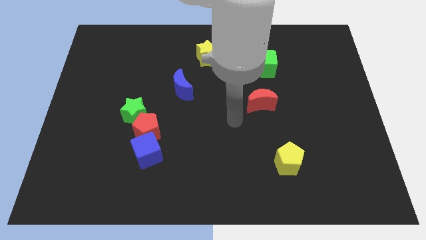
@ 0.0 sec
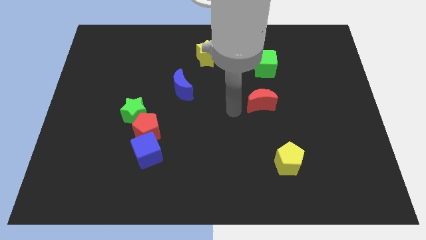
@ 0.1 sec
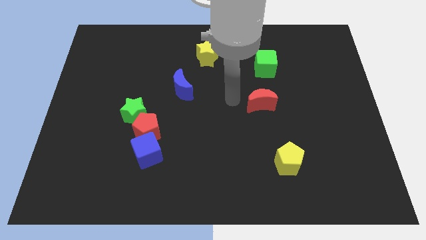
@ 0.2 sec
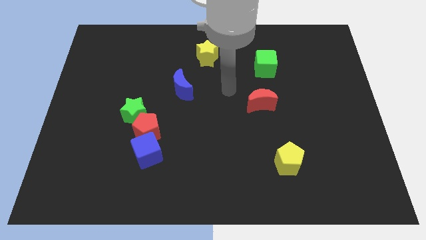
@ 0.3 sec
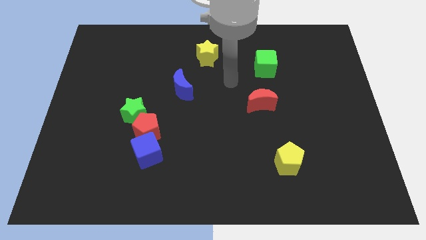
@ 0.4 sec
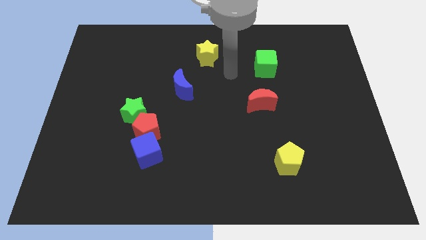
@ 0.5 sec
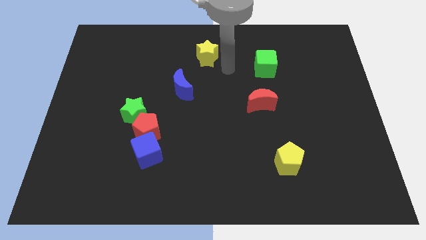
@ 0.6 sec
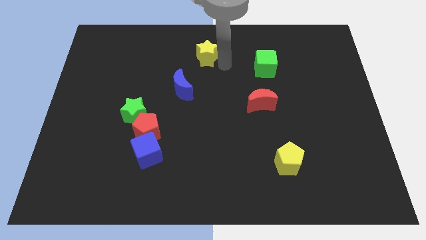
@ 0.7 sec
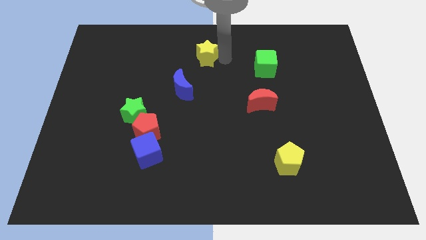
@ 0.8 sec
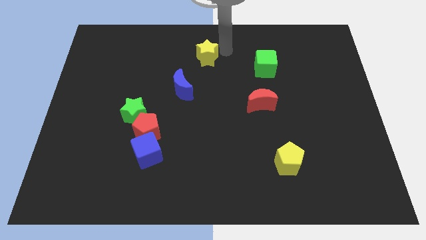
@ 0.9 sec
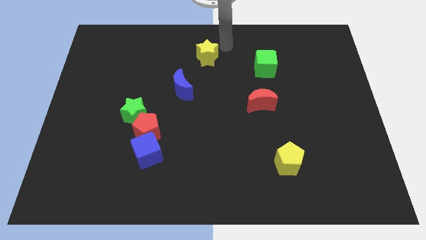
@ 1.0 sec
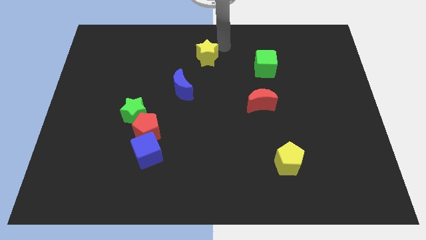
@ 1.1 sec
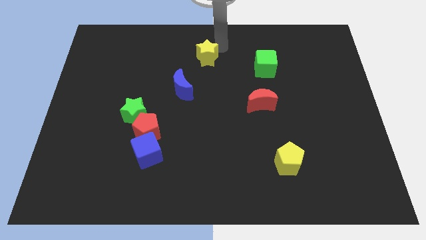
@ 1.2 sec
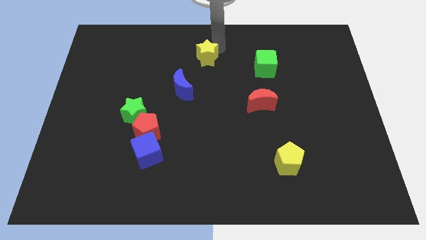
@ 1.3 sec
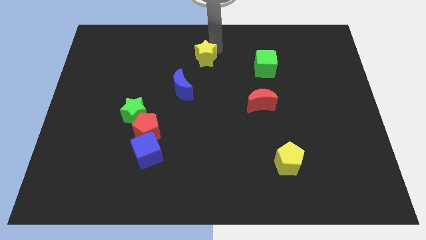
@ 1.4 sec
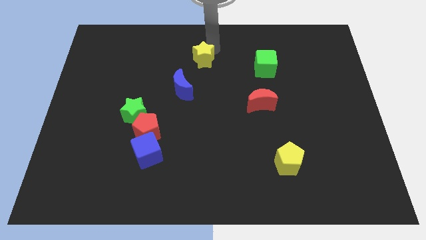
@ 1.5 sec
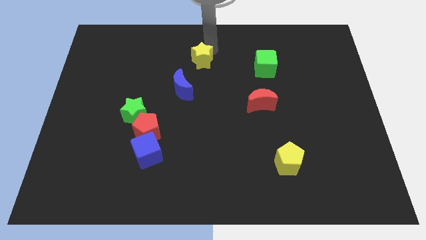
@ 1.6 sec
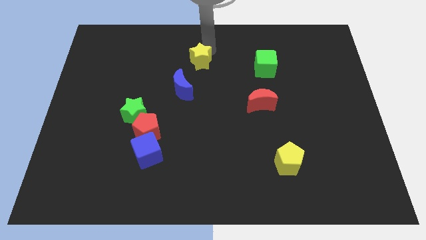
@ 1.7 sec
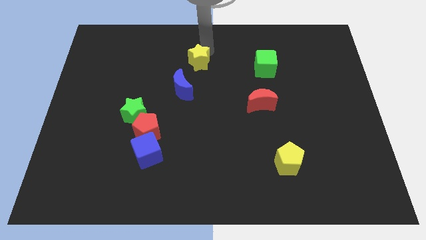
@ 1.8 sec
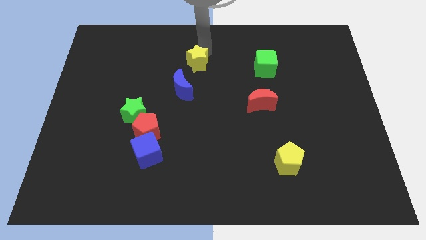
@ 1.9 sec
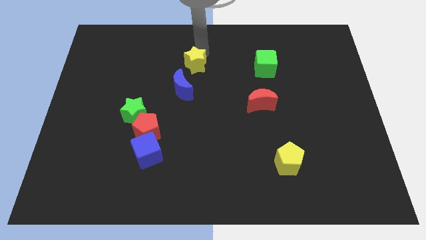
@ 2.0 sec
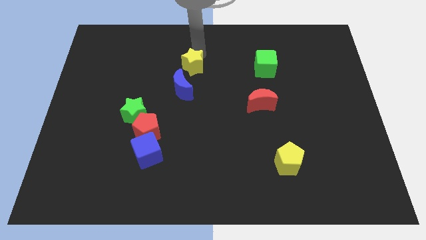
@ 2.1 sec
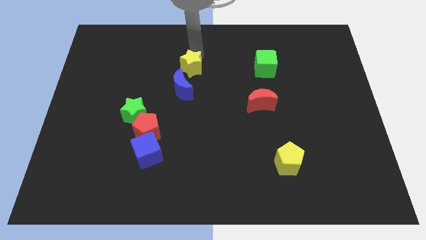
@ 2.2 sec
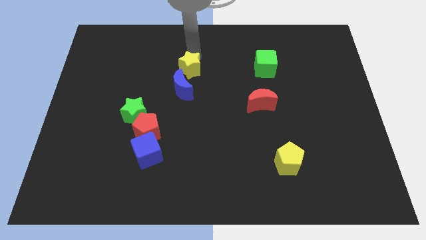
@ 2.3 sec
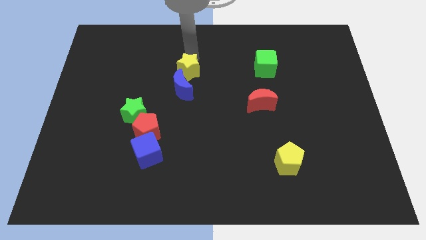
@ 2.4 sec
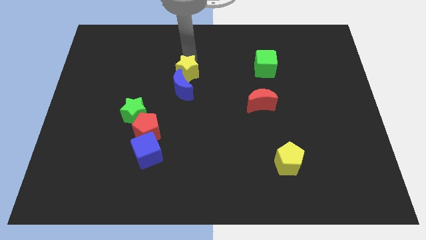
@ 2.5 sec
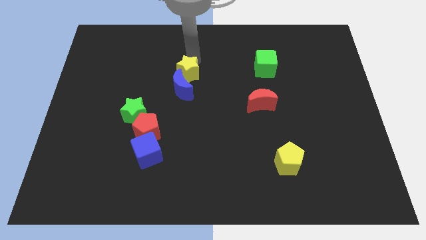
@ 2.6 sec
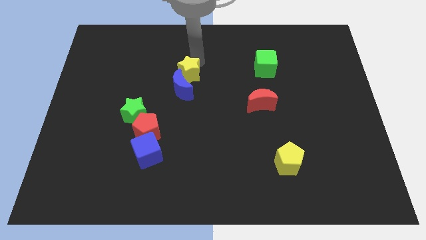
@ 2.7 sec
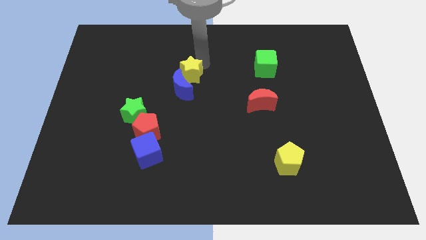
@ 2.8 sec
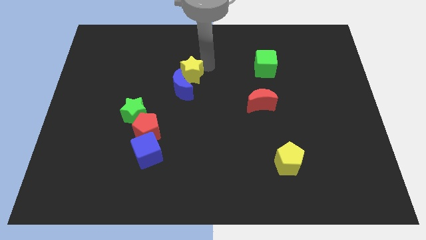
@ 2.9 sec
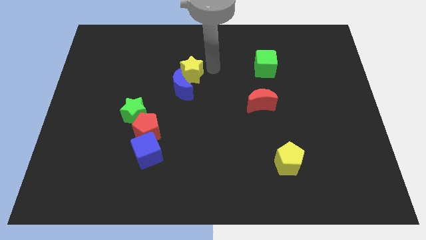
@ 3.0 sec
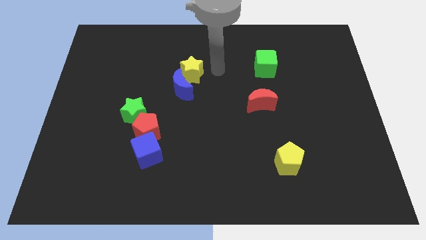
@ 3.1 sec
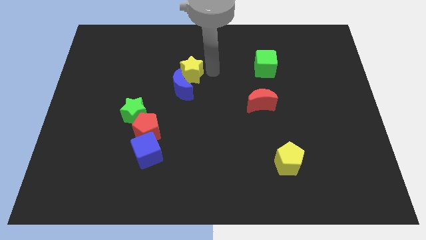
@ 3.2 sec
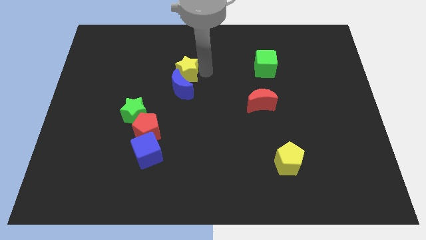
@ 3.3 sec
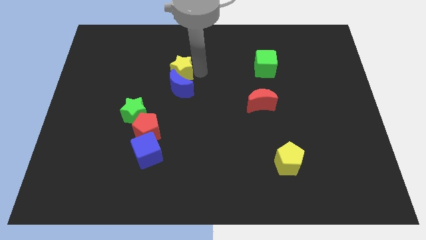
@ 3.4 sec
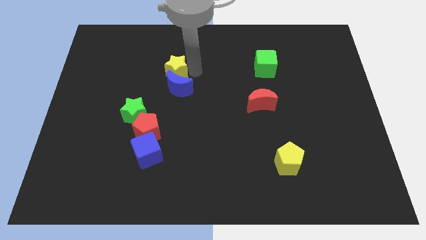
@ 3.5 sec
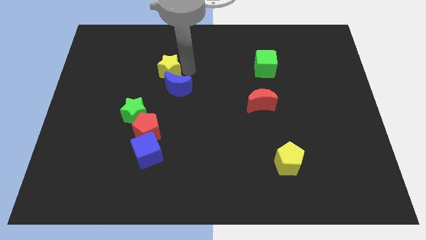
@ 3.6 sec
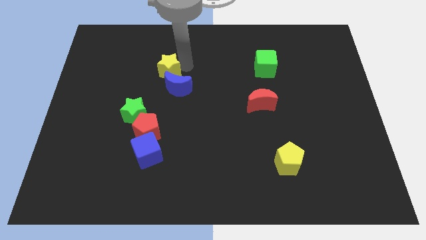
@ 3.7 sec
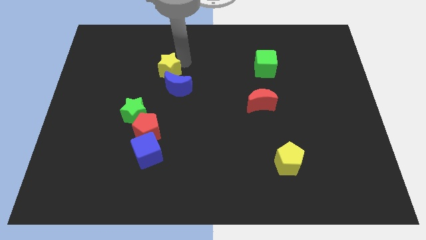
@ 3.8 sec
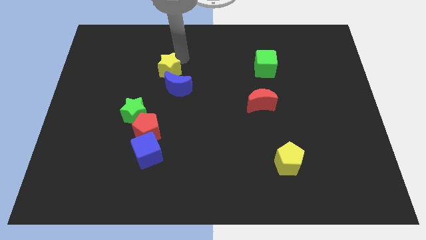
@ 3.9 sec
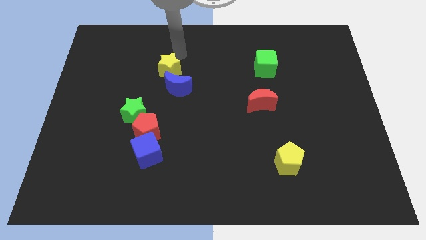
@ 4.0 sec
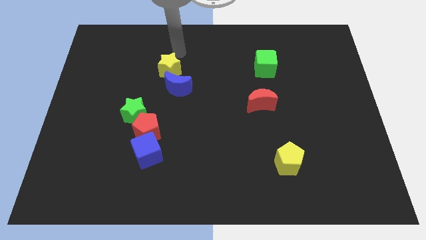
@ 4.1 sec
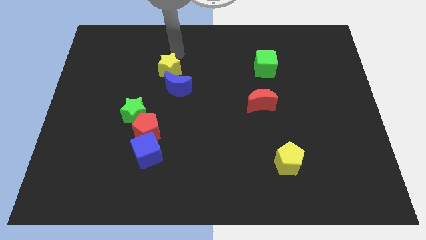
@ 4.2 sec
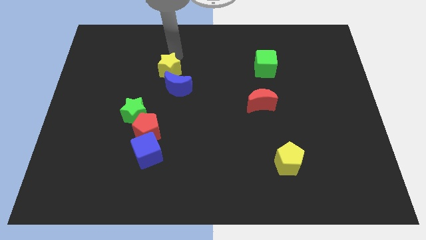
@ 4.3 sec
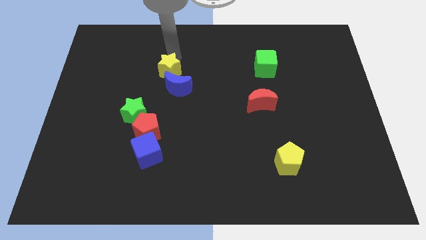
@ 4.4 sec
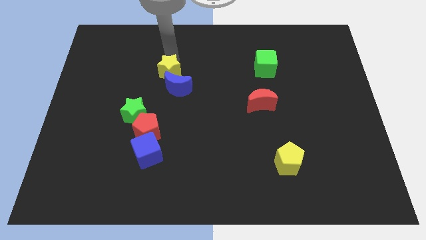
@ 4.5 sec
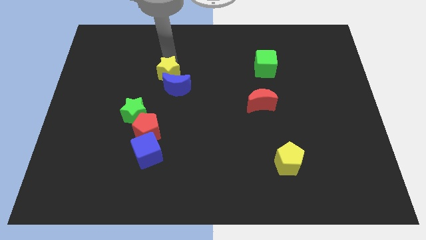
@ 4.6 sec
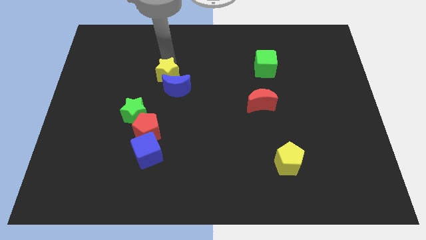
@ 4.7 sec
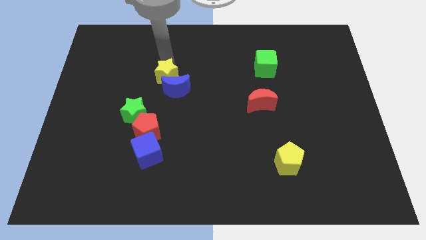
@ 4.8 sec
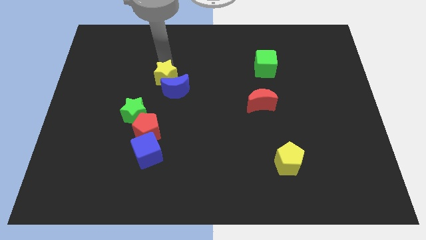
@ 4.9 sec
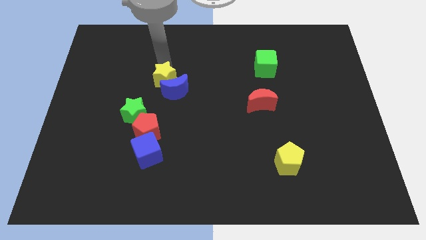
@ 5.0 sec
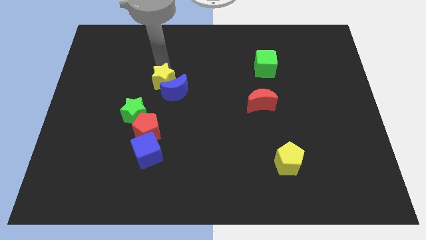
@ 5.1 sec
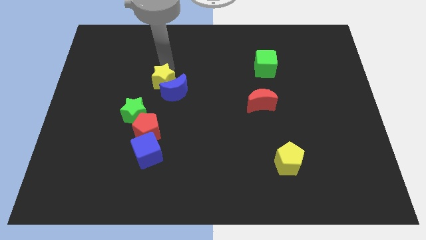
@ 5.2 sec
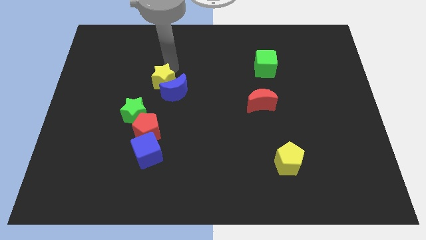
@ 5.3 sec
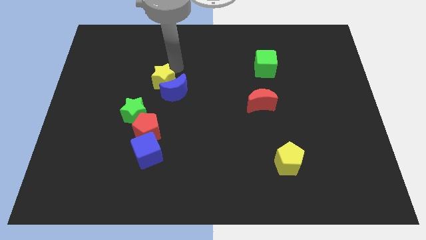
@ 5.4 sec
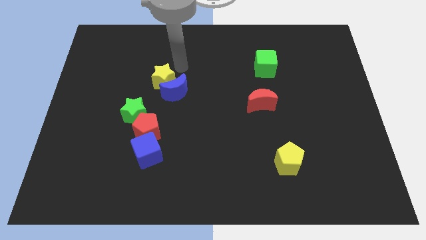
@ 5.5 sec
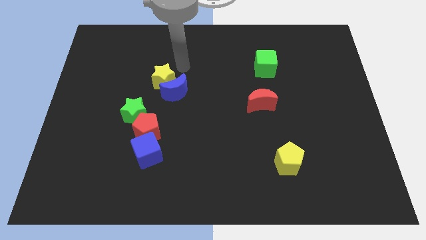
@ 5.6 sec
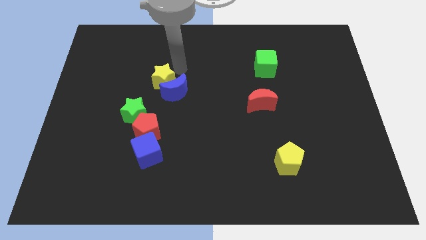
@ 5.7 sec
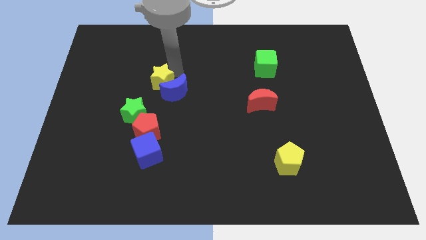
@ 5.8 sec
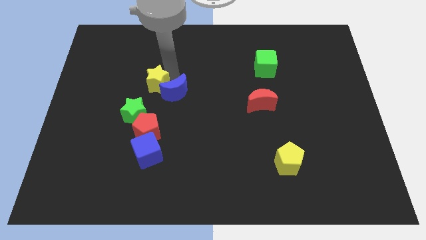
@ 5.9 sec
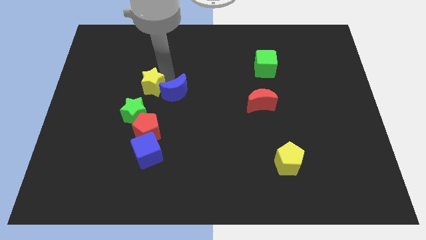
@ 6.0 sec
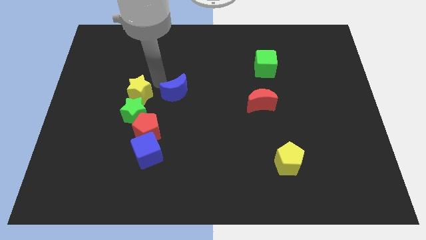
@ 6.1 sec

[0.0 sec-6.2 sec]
slide the yellow star down and to the left

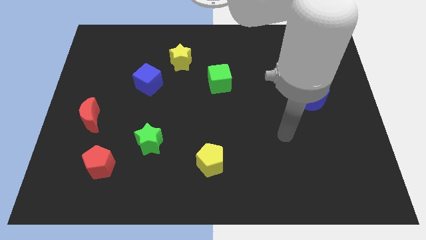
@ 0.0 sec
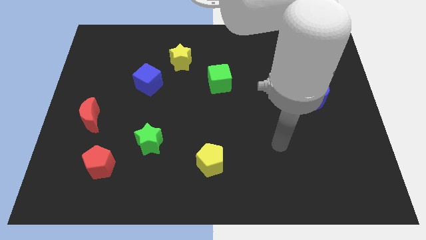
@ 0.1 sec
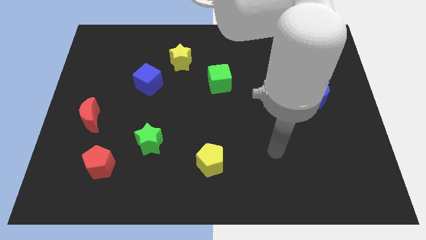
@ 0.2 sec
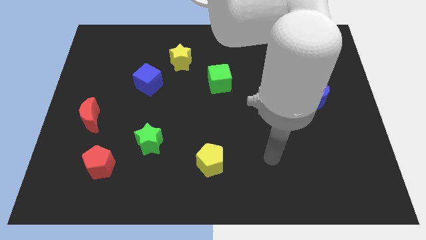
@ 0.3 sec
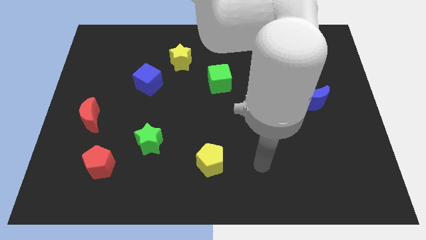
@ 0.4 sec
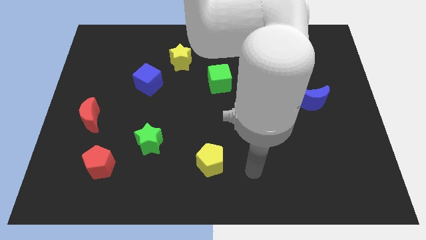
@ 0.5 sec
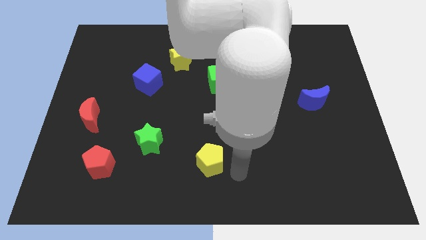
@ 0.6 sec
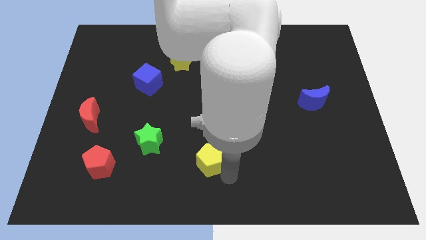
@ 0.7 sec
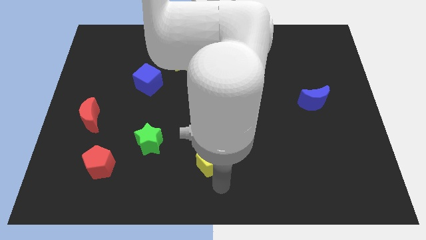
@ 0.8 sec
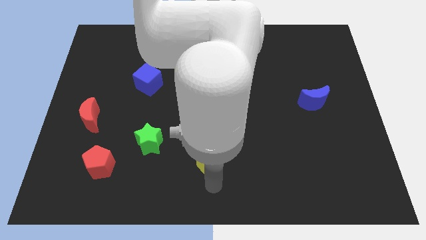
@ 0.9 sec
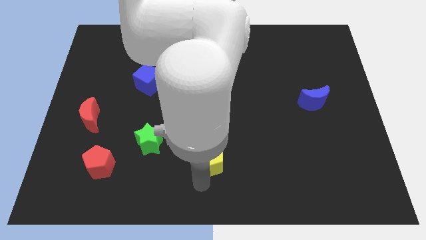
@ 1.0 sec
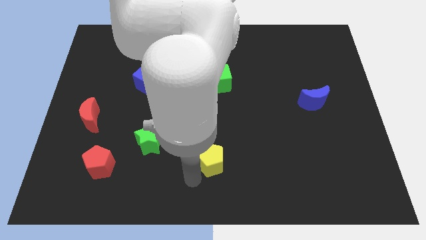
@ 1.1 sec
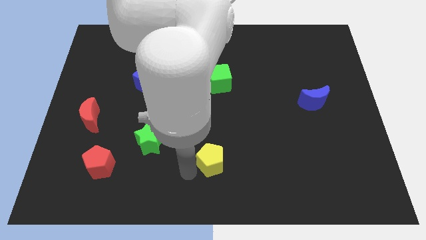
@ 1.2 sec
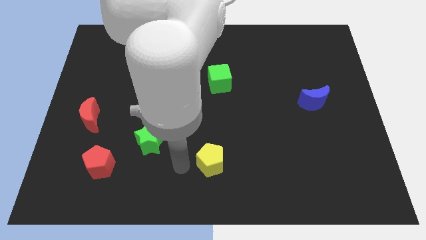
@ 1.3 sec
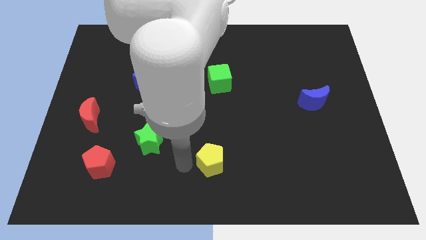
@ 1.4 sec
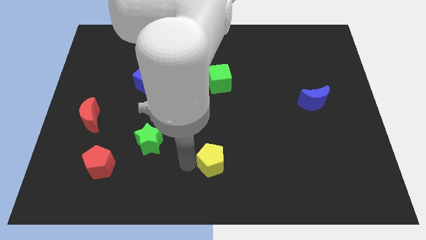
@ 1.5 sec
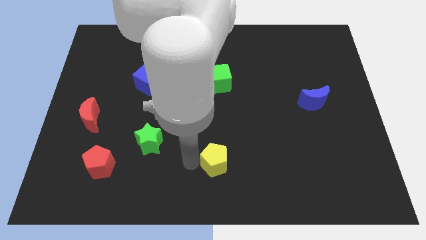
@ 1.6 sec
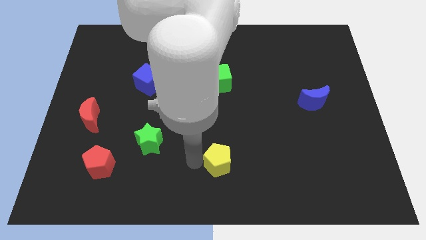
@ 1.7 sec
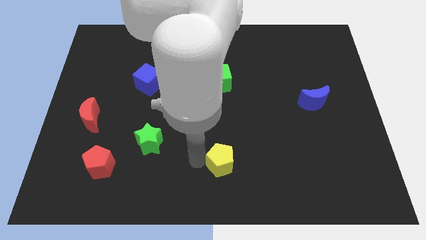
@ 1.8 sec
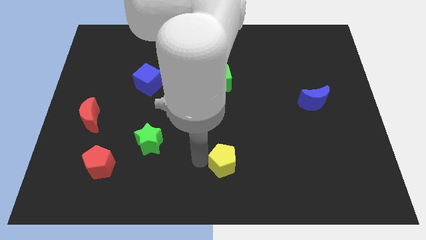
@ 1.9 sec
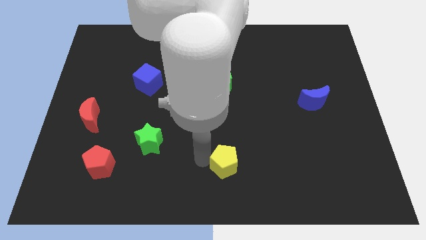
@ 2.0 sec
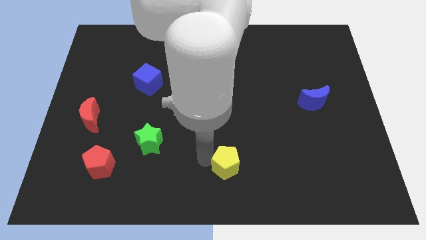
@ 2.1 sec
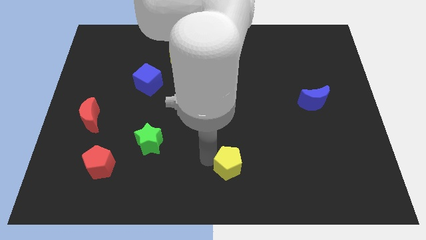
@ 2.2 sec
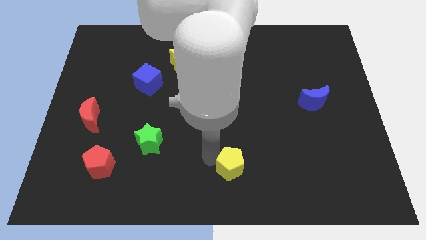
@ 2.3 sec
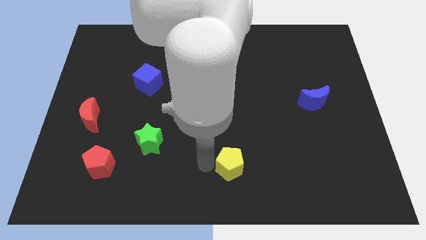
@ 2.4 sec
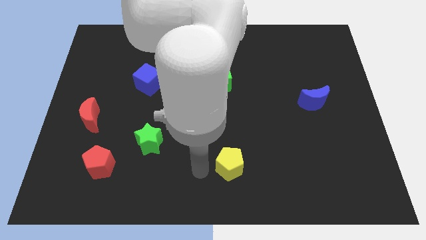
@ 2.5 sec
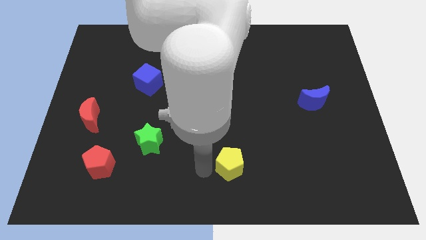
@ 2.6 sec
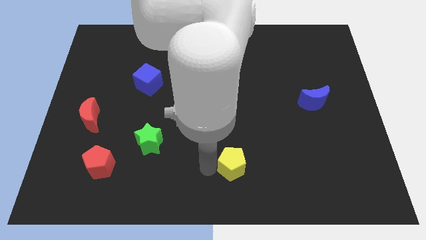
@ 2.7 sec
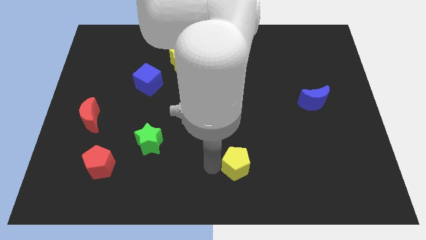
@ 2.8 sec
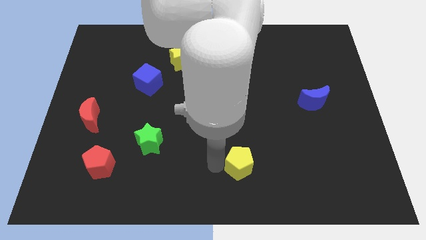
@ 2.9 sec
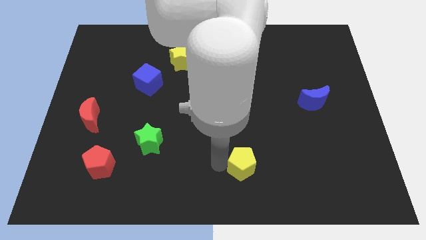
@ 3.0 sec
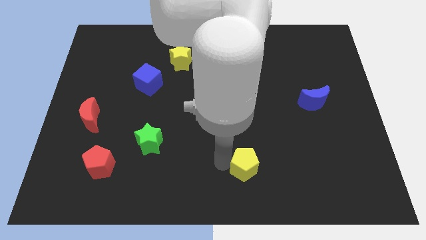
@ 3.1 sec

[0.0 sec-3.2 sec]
push the yellow pentagon a bit right
